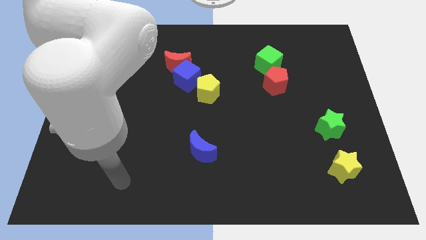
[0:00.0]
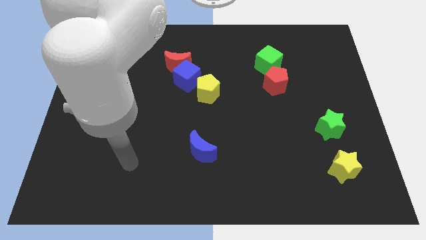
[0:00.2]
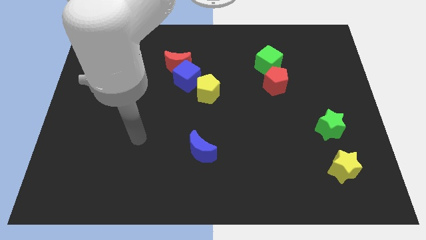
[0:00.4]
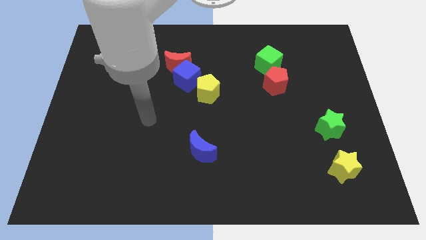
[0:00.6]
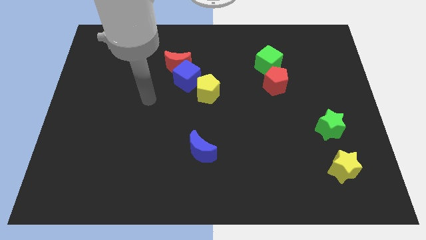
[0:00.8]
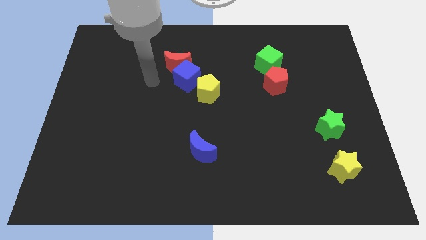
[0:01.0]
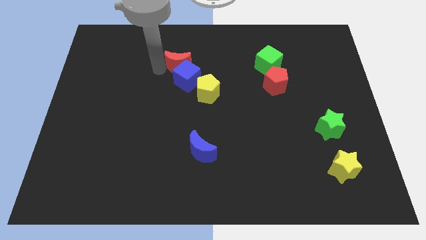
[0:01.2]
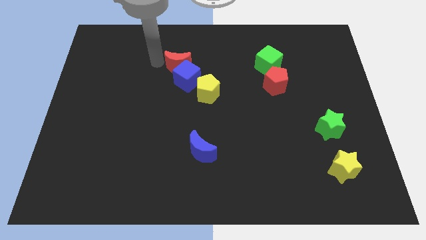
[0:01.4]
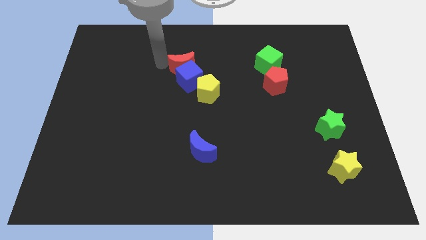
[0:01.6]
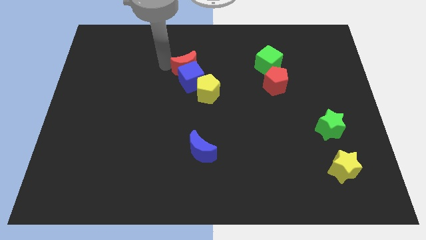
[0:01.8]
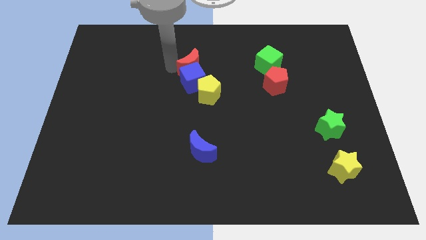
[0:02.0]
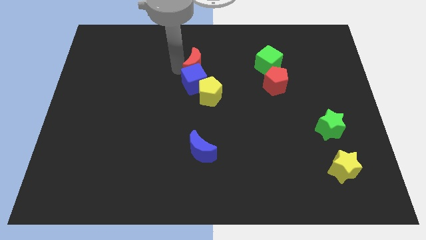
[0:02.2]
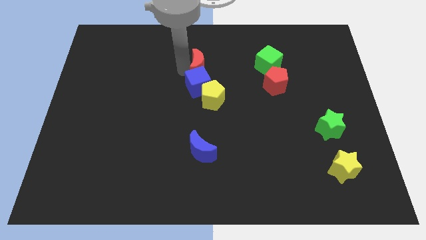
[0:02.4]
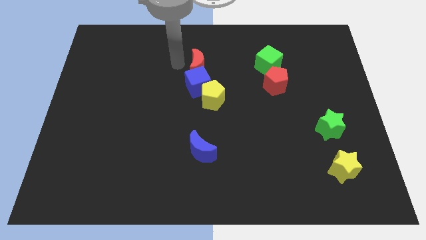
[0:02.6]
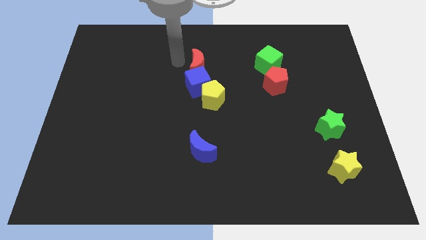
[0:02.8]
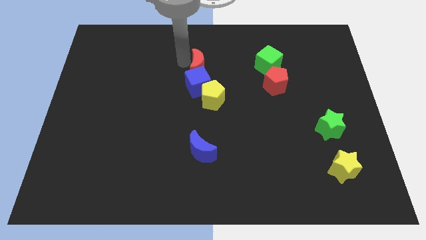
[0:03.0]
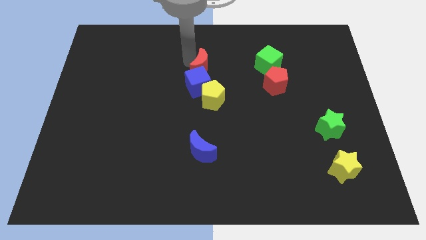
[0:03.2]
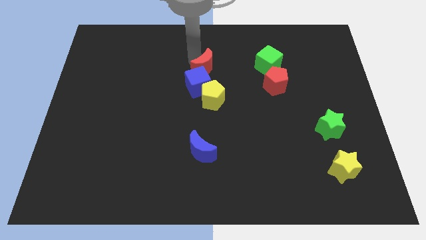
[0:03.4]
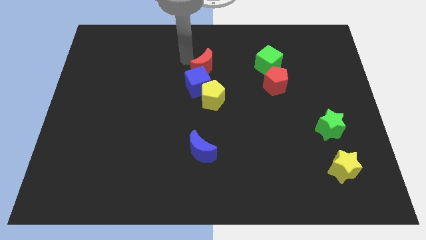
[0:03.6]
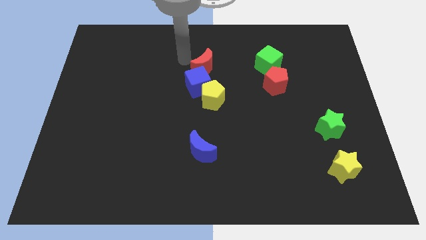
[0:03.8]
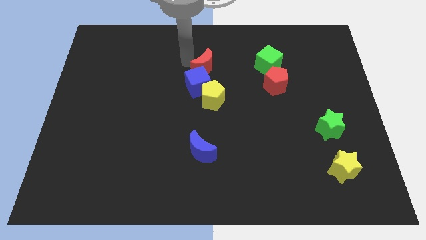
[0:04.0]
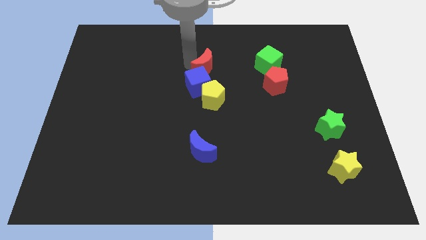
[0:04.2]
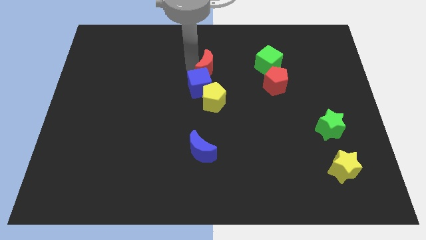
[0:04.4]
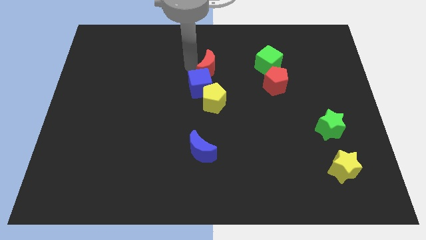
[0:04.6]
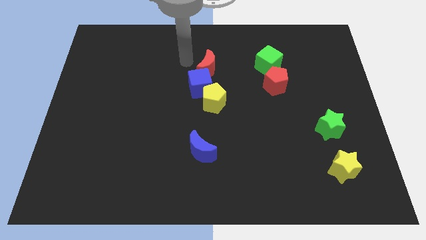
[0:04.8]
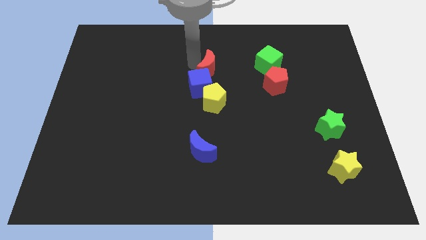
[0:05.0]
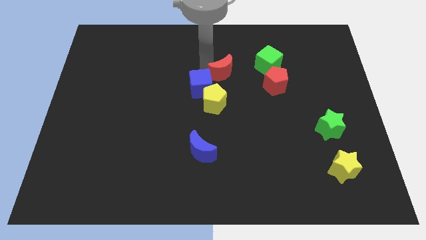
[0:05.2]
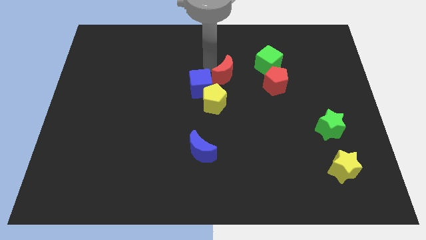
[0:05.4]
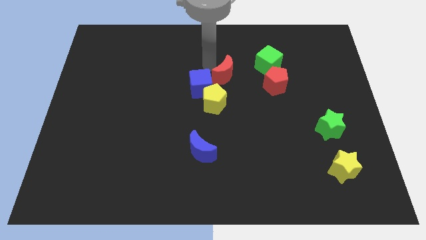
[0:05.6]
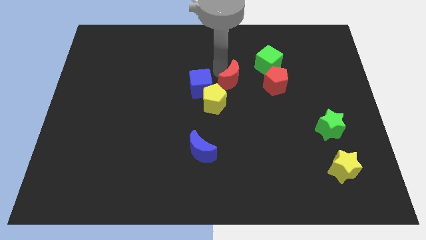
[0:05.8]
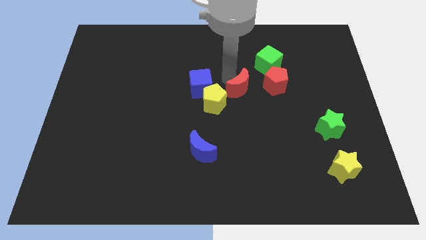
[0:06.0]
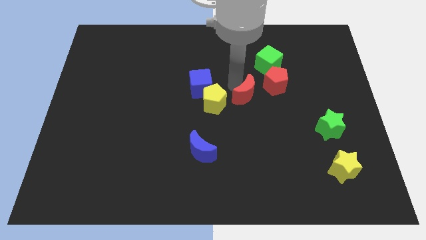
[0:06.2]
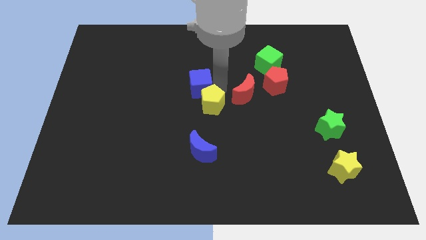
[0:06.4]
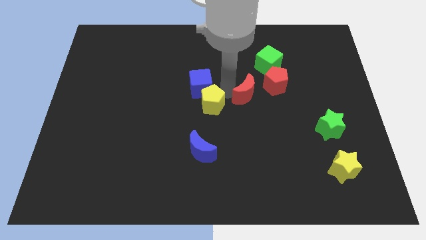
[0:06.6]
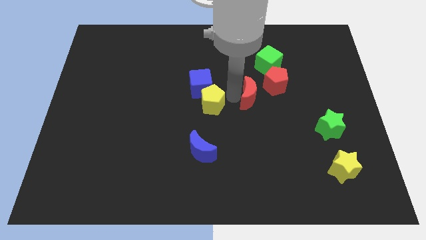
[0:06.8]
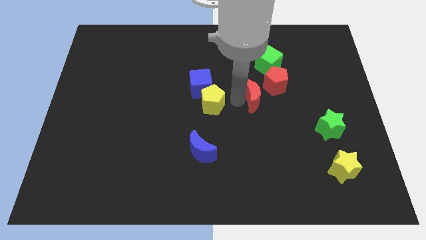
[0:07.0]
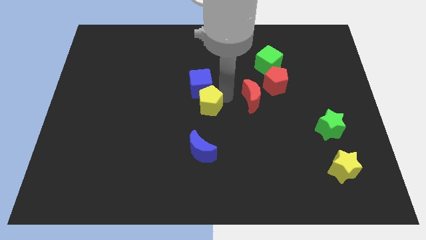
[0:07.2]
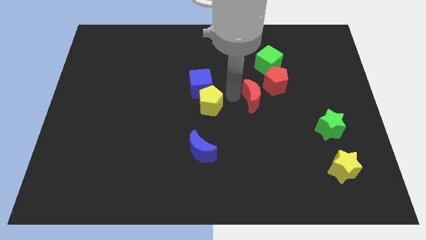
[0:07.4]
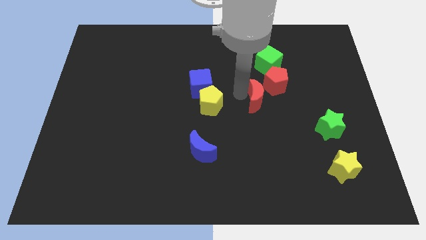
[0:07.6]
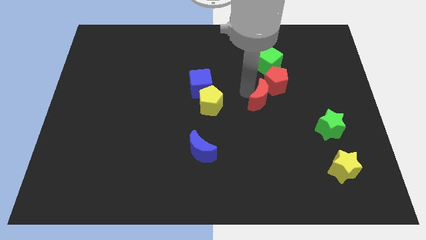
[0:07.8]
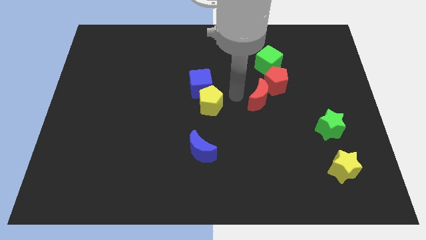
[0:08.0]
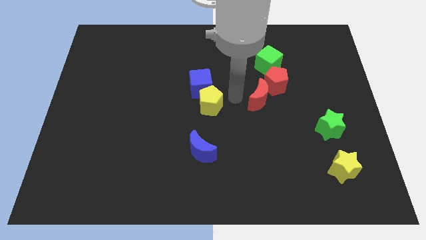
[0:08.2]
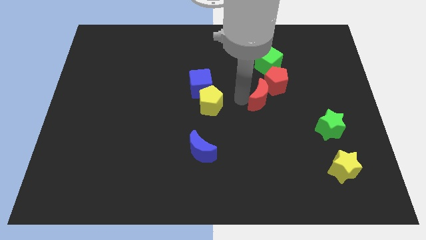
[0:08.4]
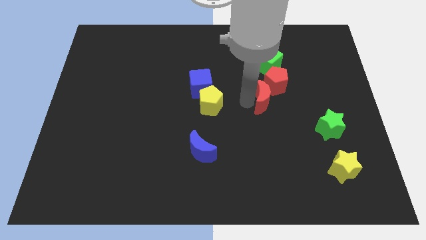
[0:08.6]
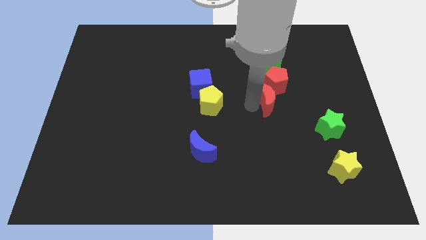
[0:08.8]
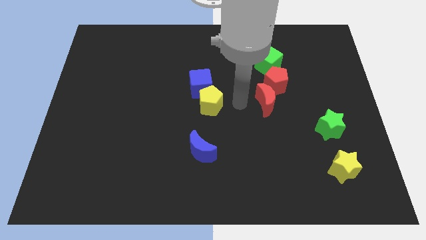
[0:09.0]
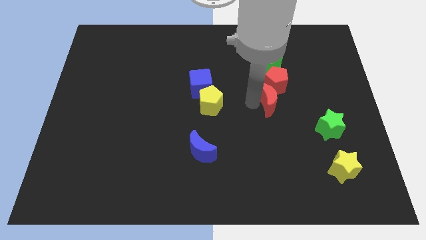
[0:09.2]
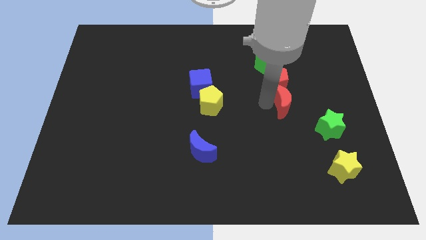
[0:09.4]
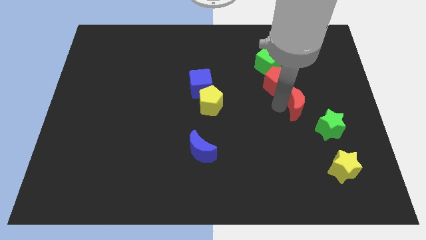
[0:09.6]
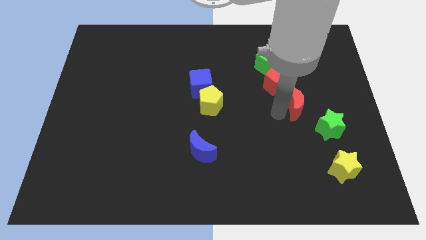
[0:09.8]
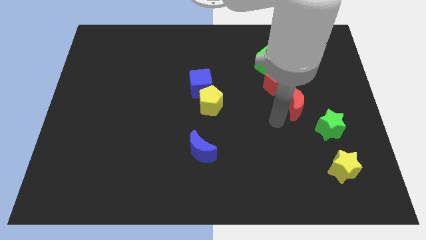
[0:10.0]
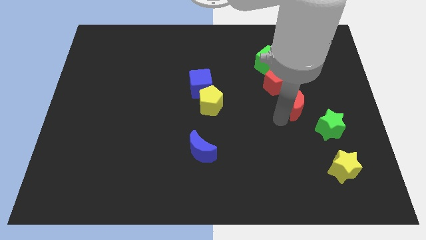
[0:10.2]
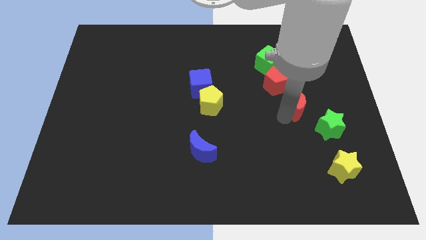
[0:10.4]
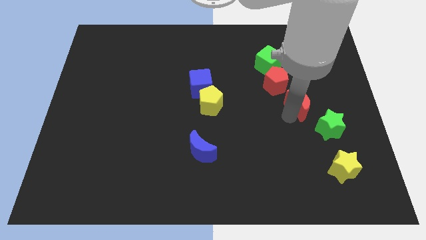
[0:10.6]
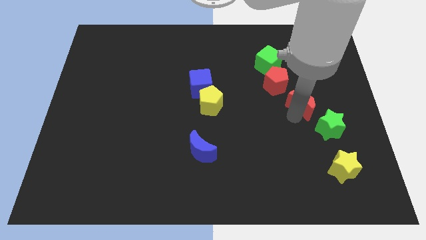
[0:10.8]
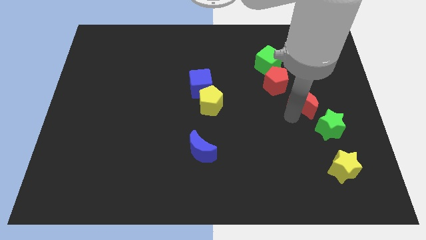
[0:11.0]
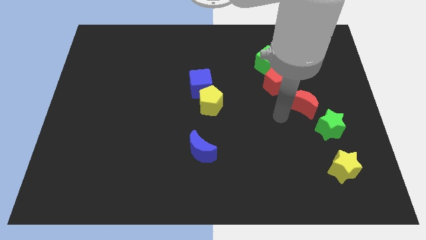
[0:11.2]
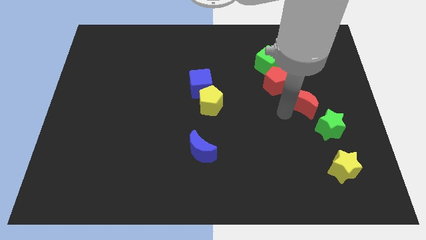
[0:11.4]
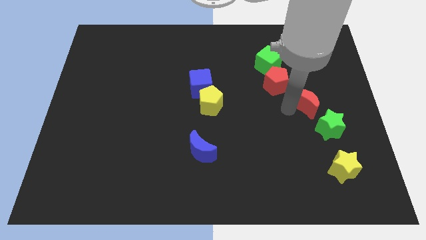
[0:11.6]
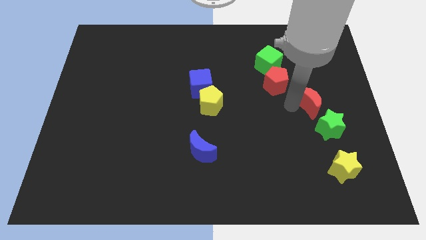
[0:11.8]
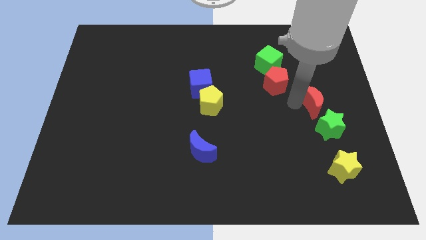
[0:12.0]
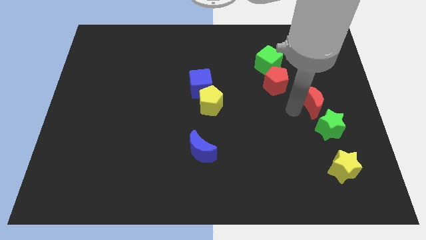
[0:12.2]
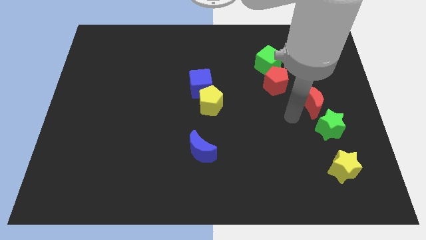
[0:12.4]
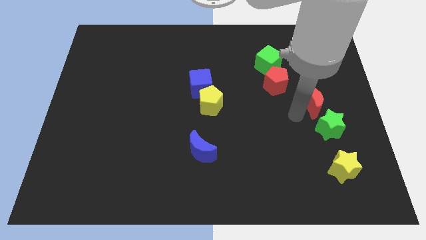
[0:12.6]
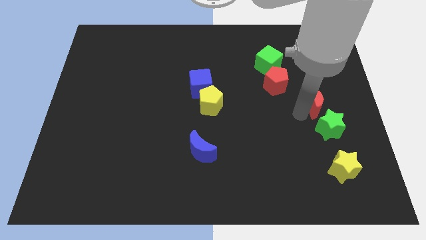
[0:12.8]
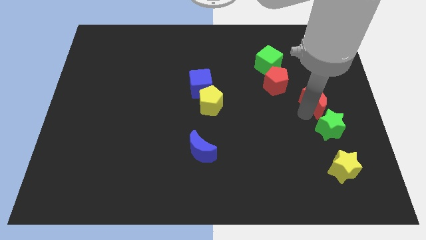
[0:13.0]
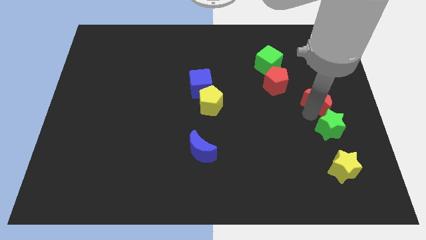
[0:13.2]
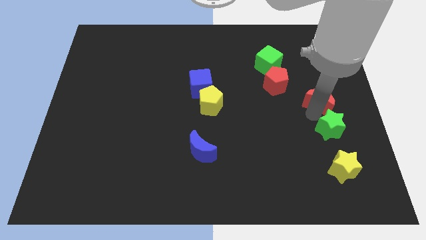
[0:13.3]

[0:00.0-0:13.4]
slide the red moon to the center right
